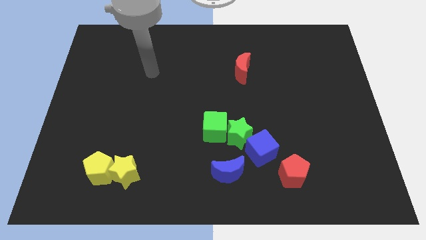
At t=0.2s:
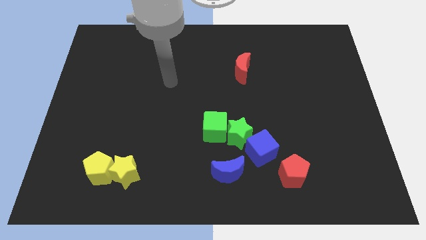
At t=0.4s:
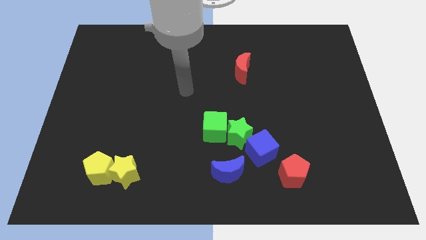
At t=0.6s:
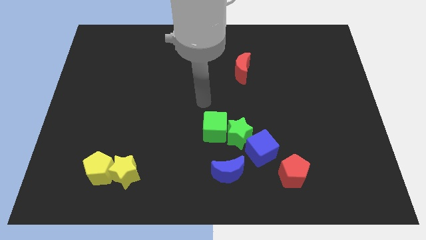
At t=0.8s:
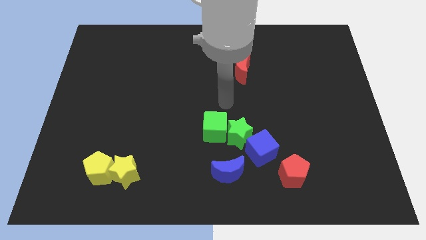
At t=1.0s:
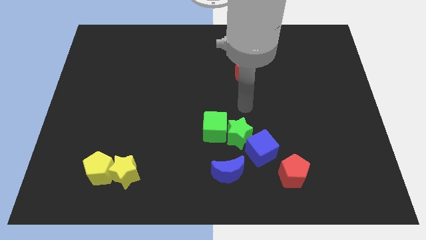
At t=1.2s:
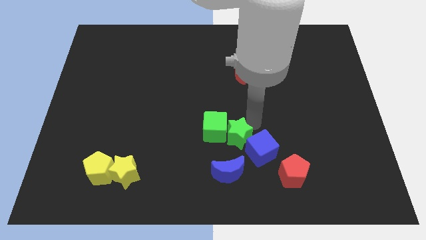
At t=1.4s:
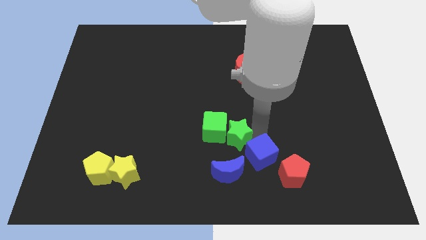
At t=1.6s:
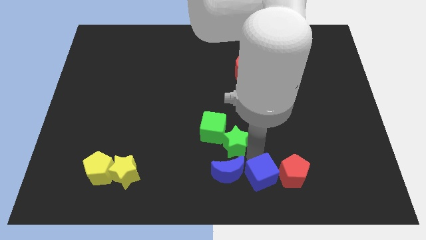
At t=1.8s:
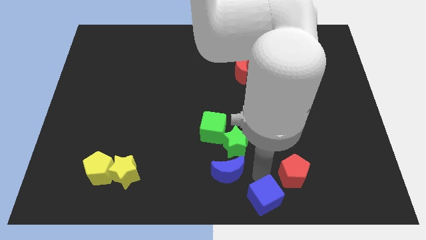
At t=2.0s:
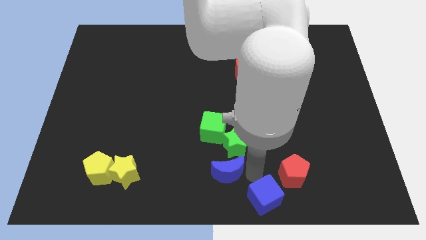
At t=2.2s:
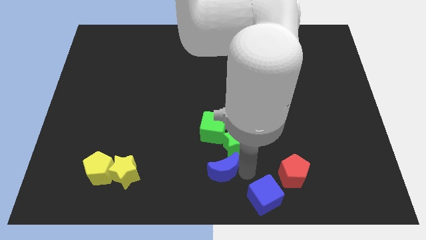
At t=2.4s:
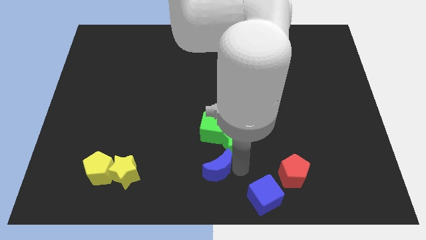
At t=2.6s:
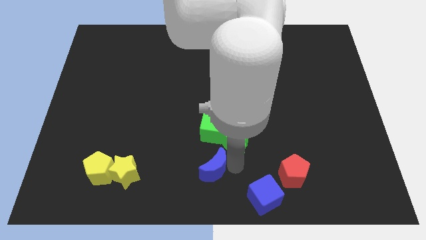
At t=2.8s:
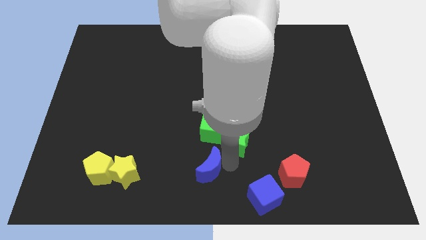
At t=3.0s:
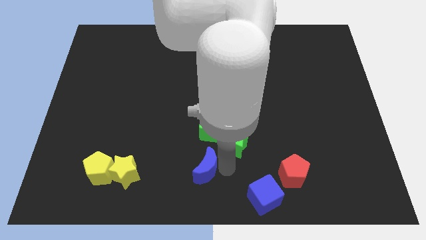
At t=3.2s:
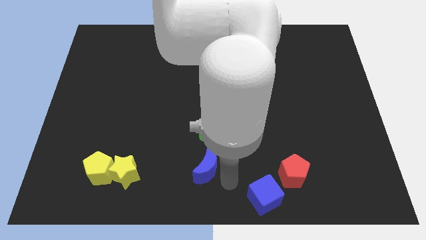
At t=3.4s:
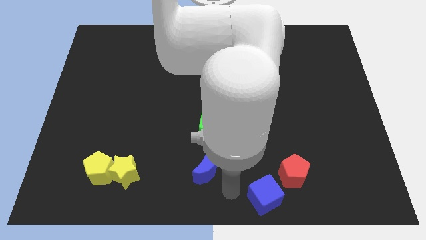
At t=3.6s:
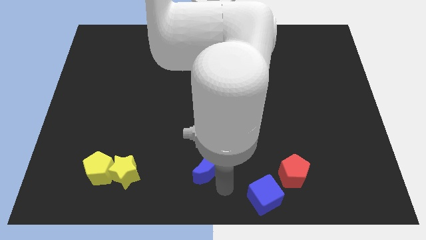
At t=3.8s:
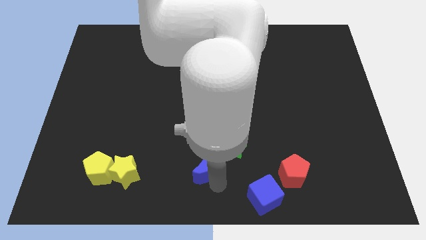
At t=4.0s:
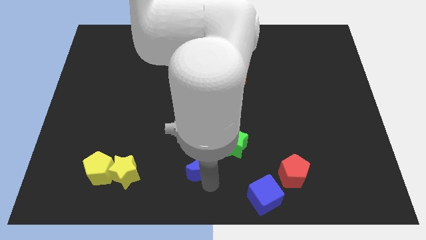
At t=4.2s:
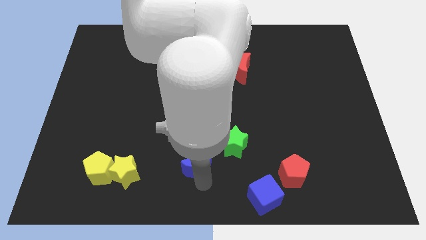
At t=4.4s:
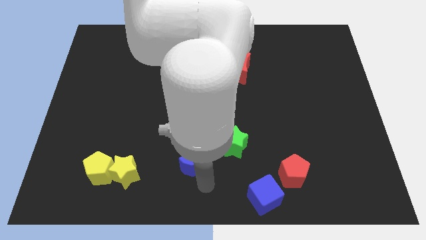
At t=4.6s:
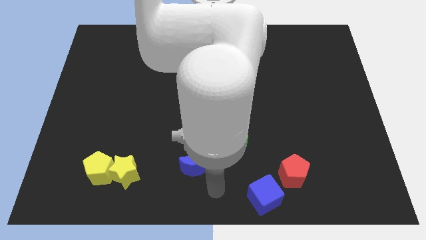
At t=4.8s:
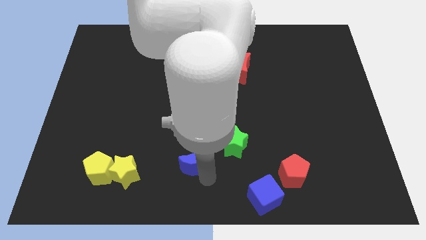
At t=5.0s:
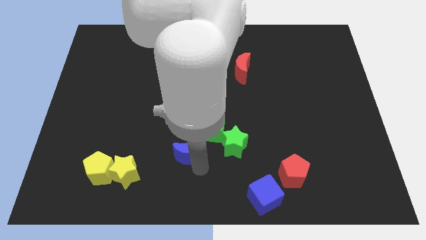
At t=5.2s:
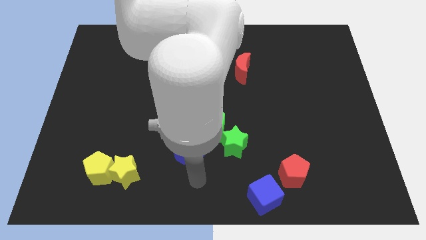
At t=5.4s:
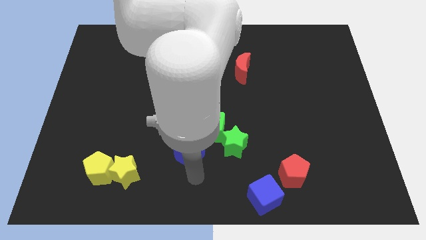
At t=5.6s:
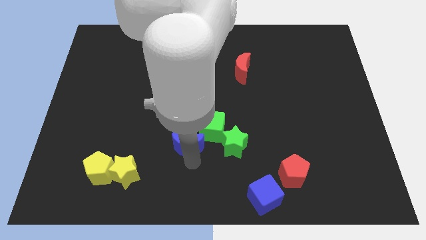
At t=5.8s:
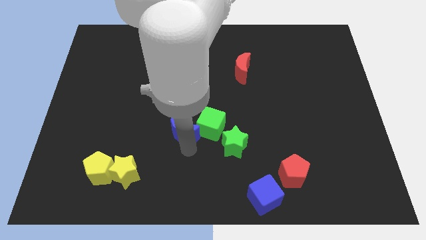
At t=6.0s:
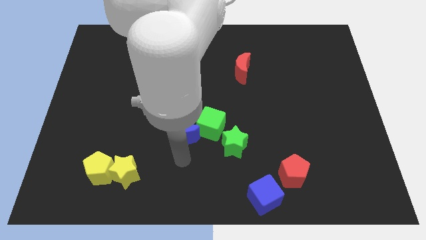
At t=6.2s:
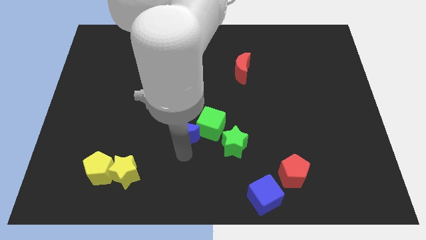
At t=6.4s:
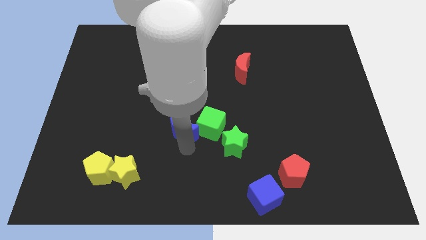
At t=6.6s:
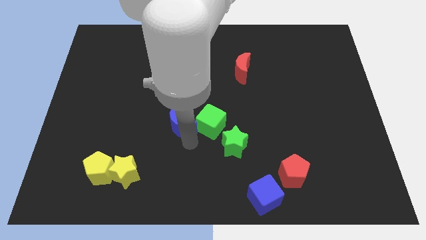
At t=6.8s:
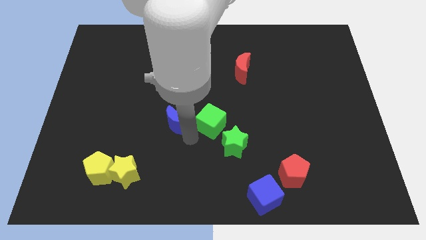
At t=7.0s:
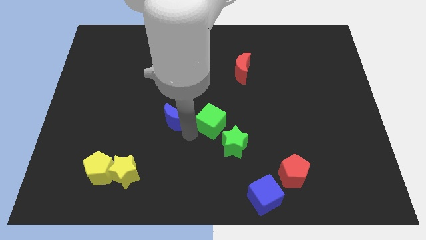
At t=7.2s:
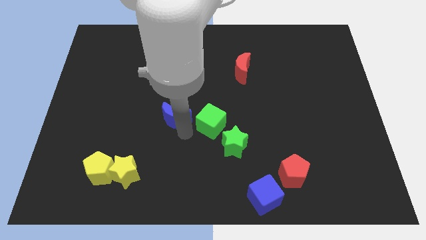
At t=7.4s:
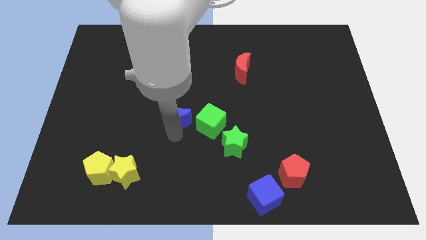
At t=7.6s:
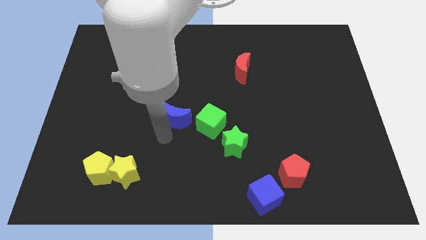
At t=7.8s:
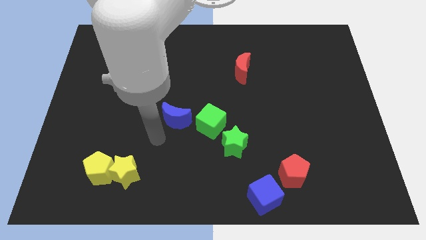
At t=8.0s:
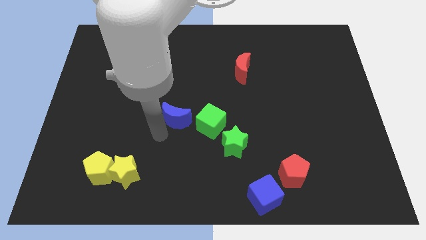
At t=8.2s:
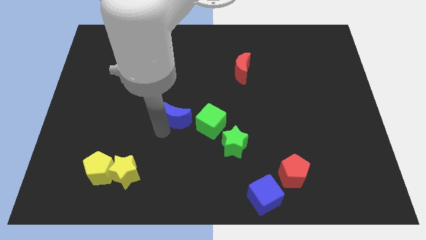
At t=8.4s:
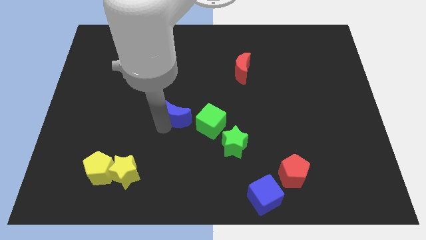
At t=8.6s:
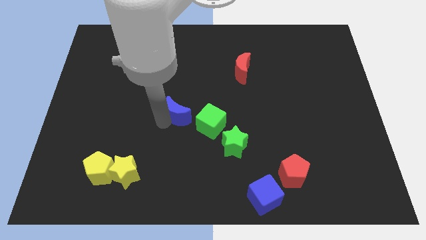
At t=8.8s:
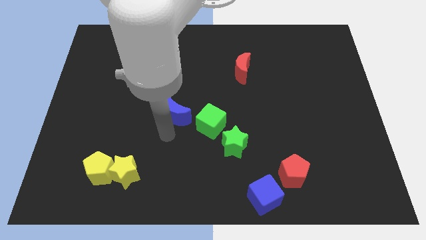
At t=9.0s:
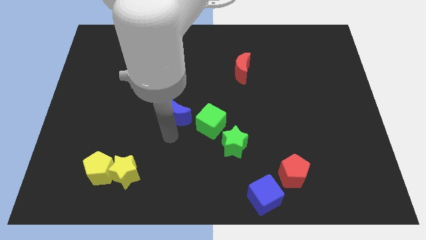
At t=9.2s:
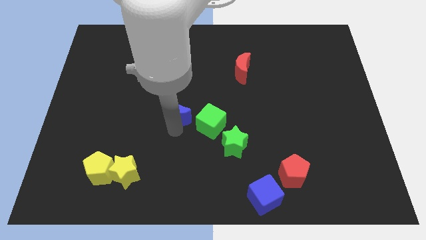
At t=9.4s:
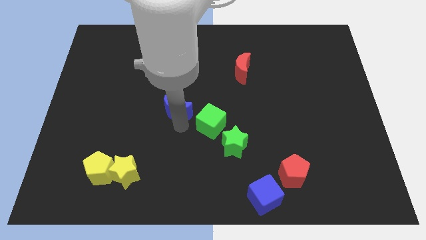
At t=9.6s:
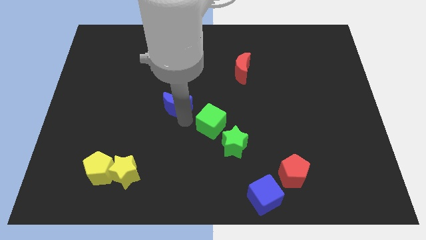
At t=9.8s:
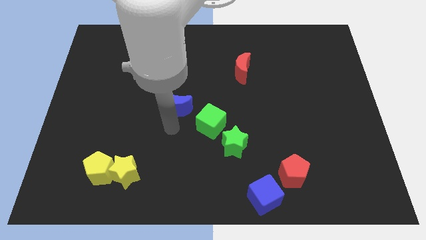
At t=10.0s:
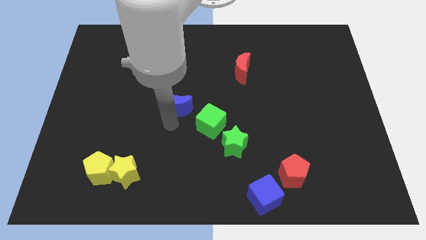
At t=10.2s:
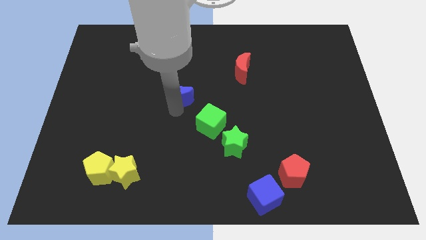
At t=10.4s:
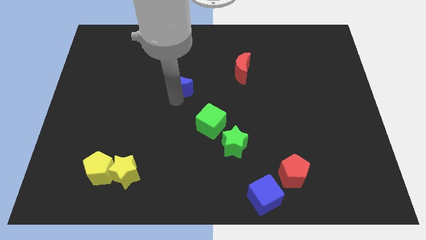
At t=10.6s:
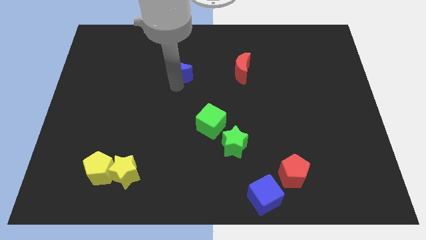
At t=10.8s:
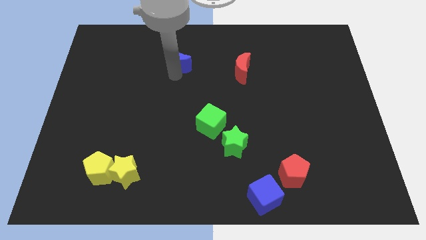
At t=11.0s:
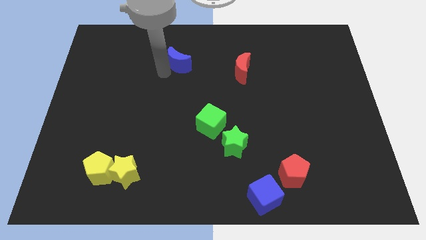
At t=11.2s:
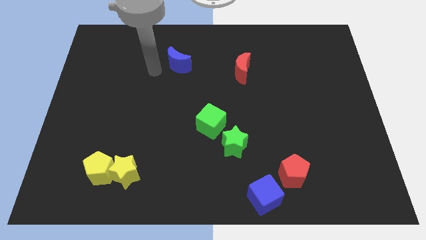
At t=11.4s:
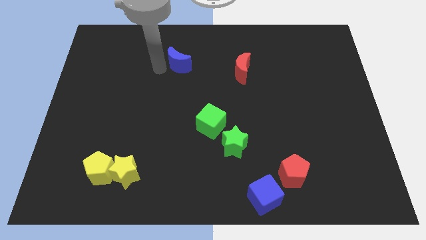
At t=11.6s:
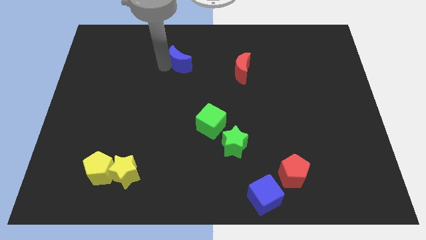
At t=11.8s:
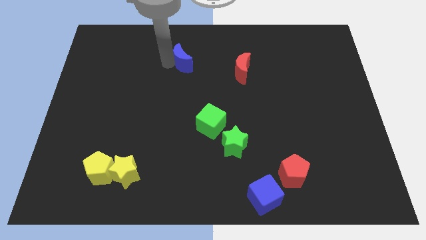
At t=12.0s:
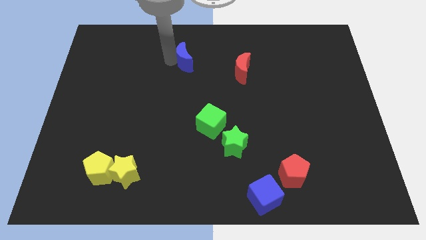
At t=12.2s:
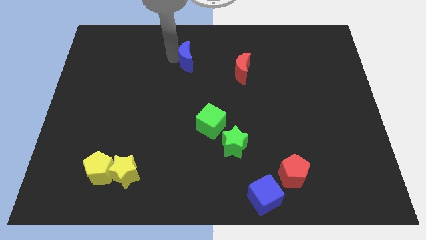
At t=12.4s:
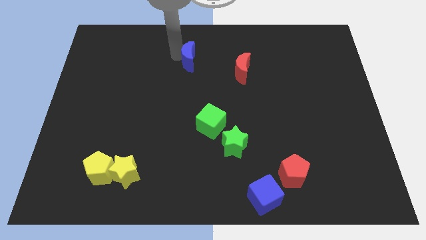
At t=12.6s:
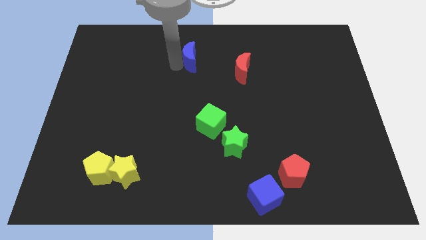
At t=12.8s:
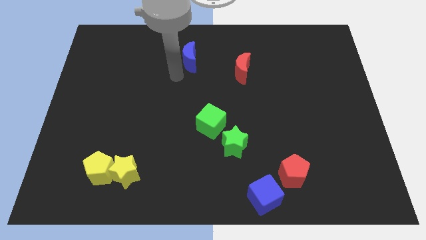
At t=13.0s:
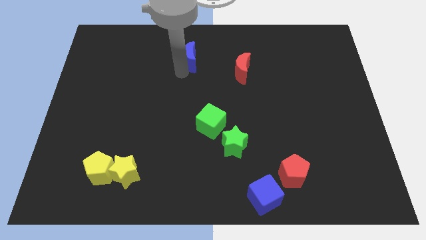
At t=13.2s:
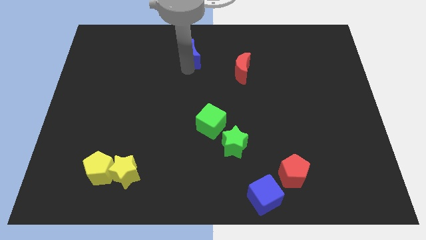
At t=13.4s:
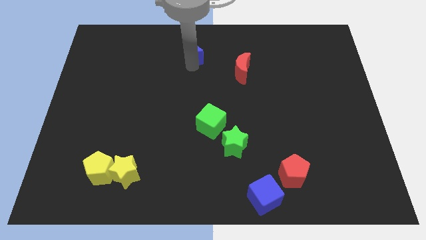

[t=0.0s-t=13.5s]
slide the blue moon to the top
